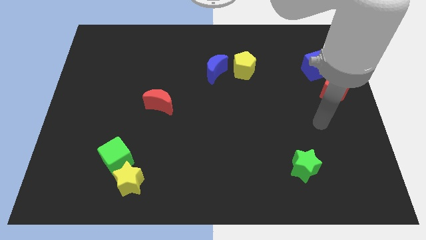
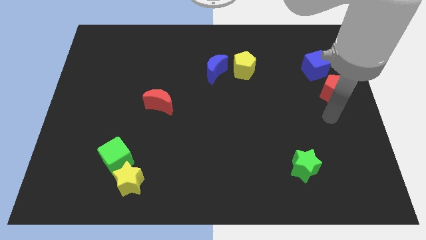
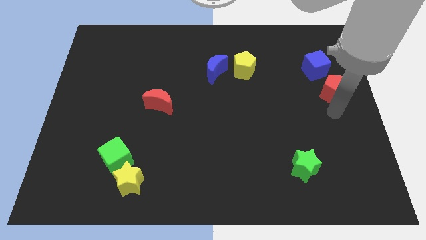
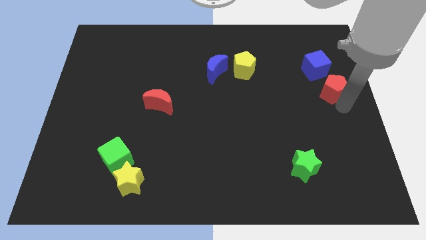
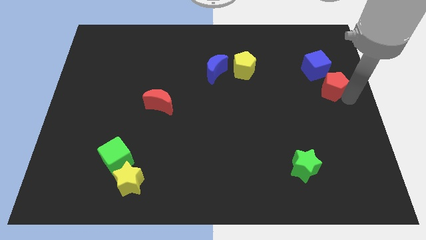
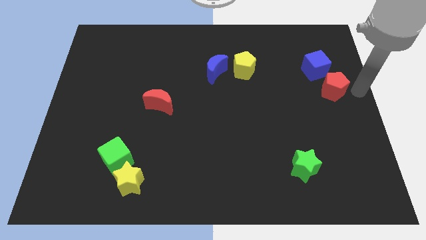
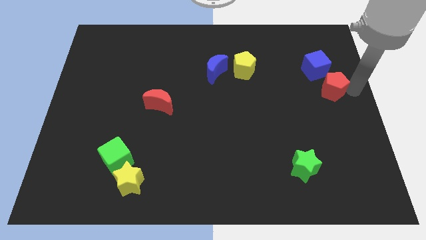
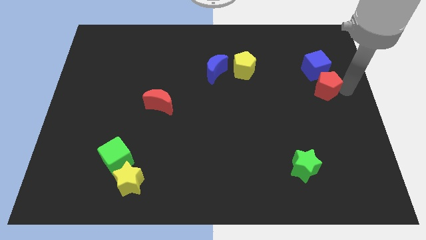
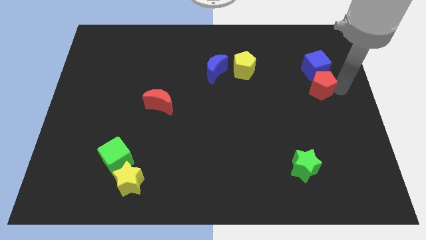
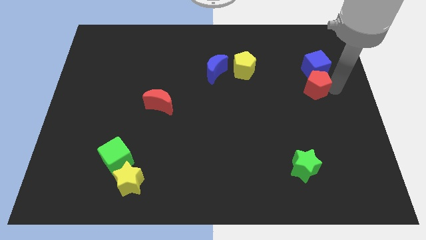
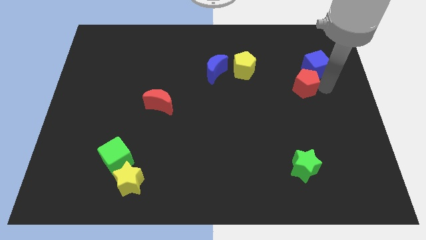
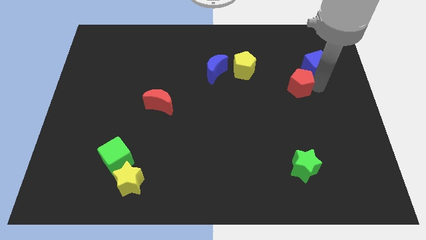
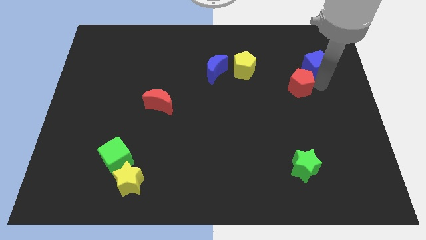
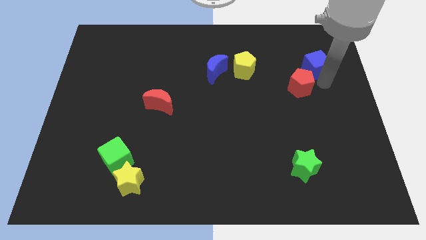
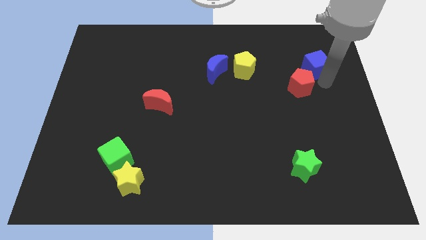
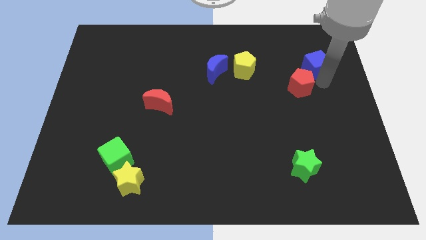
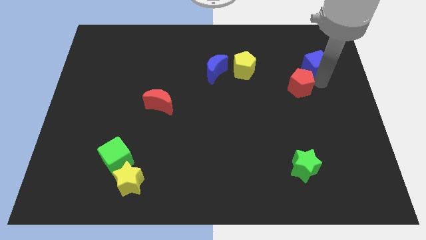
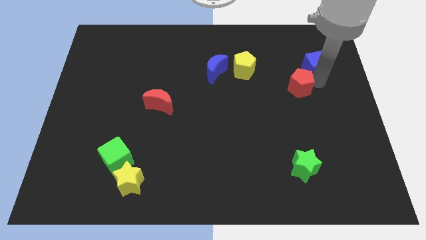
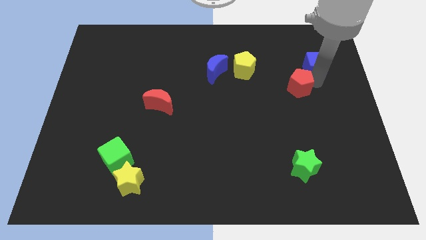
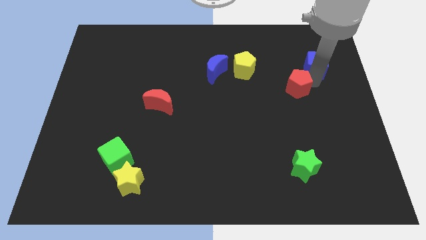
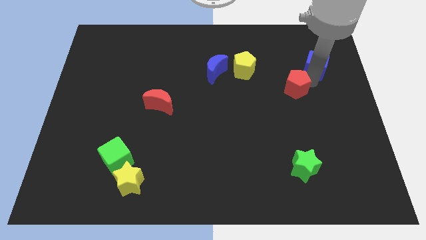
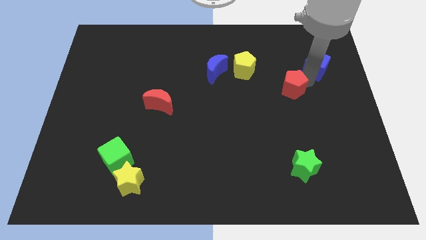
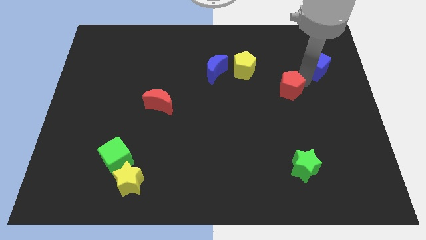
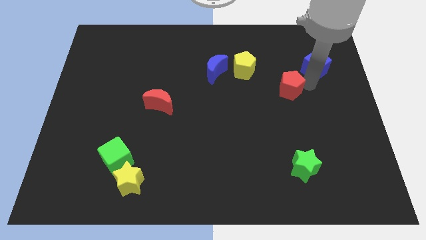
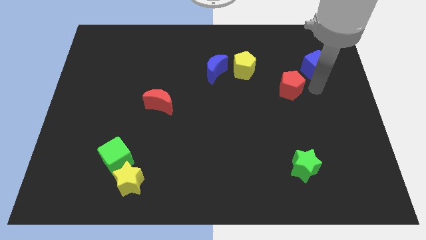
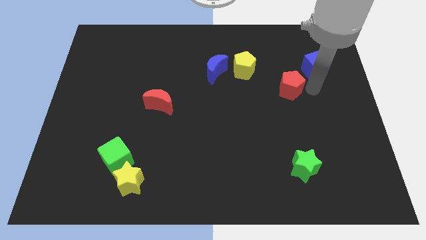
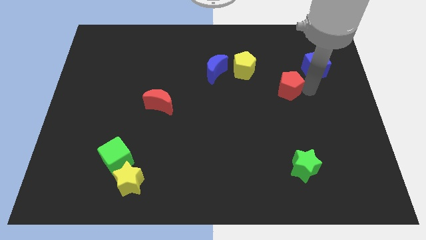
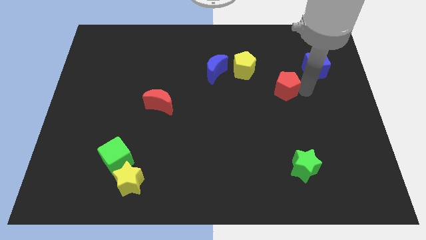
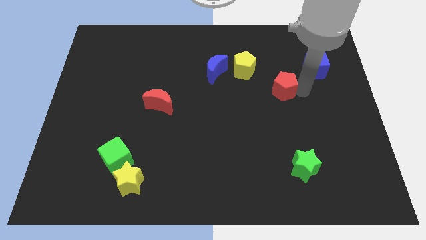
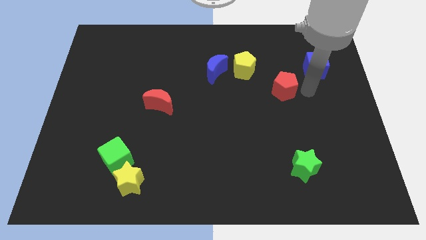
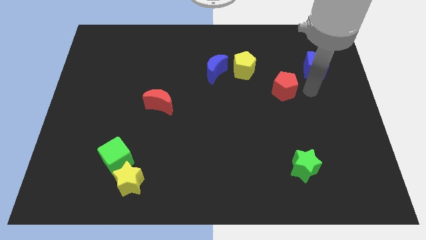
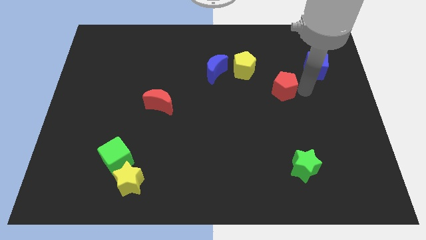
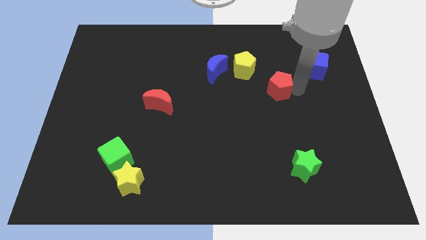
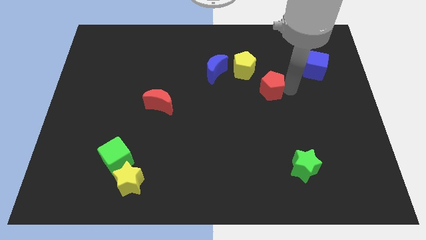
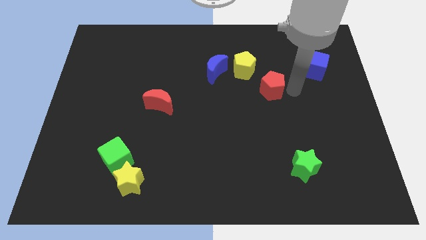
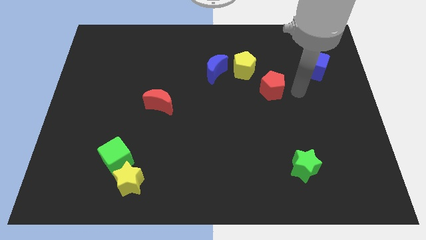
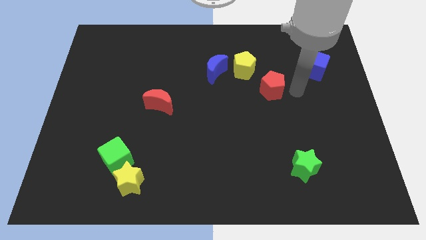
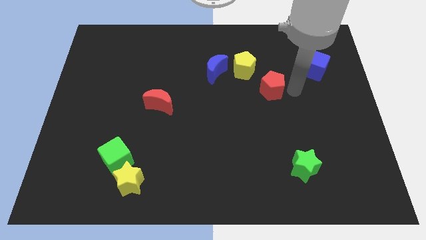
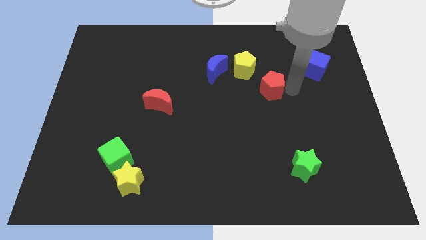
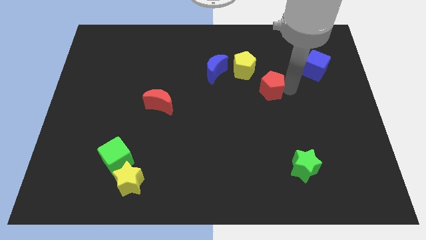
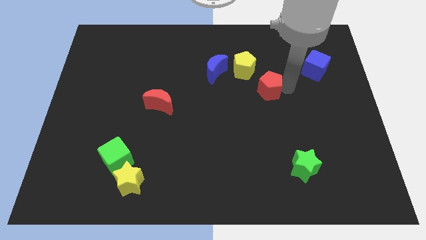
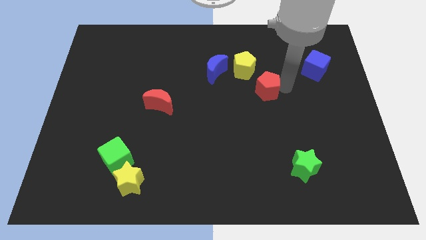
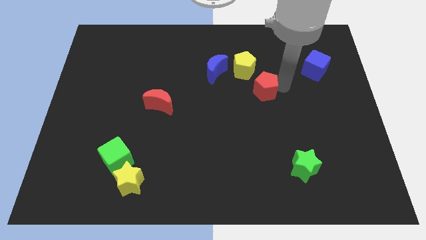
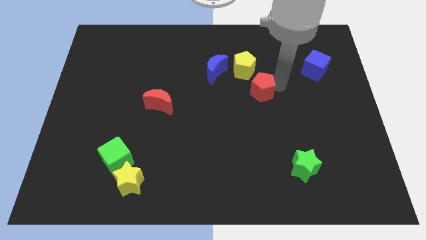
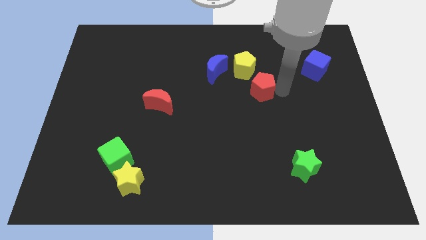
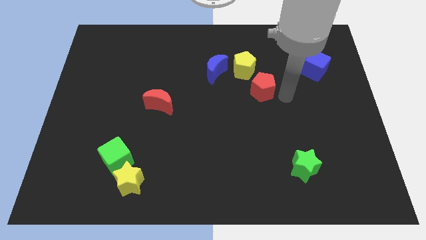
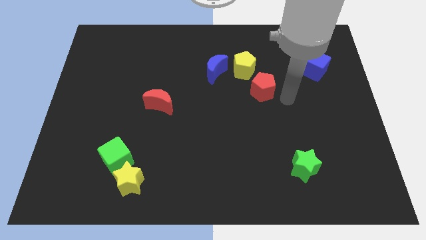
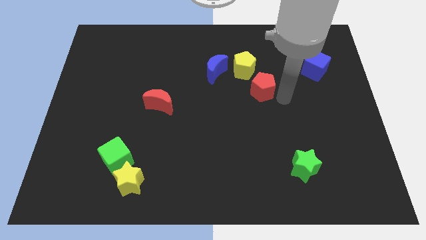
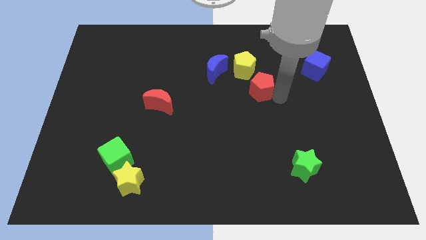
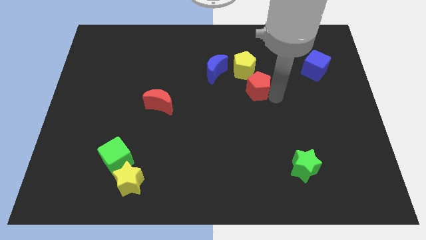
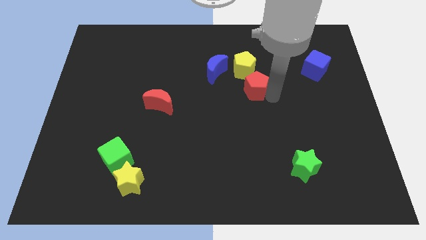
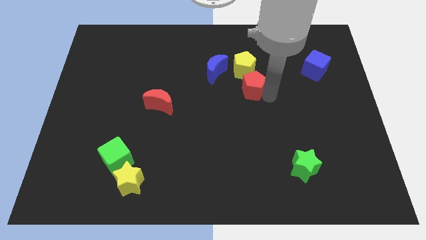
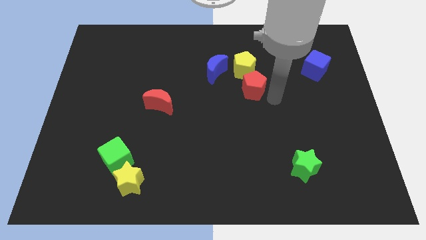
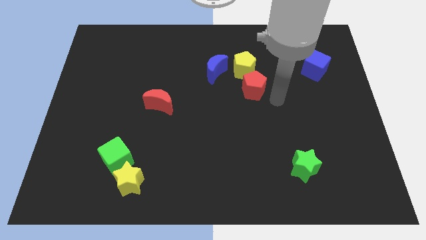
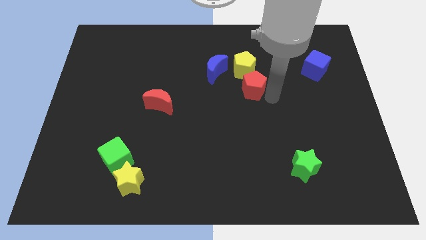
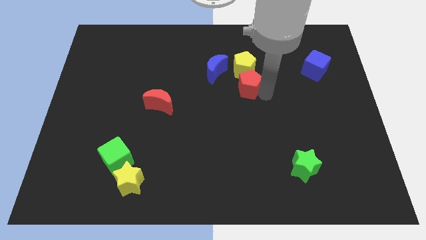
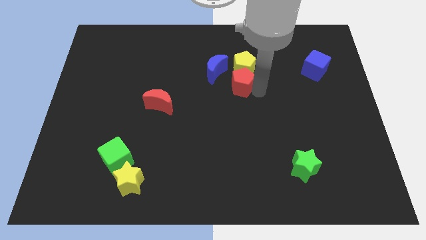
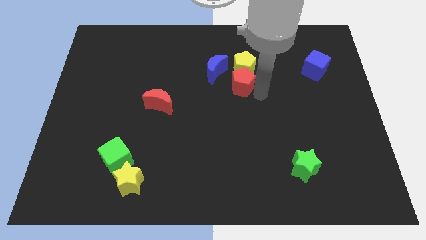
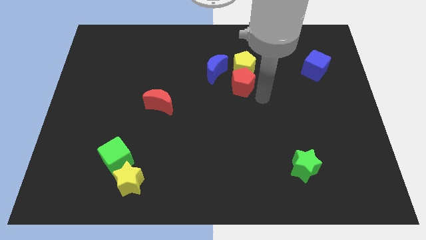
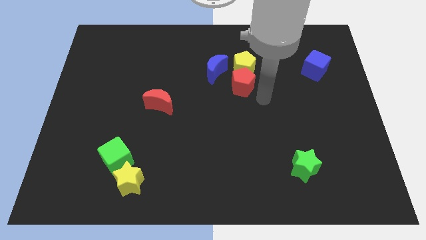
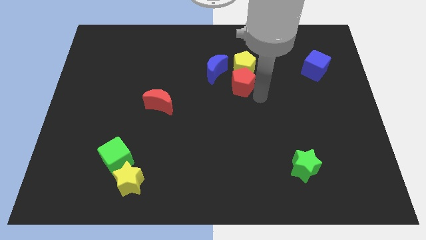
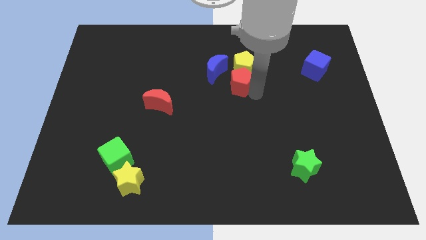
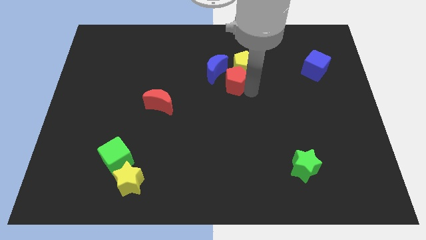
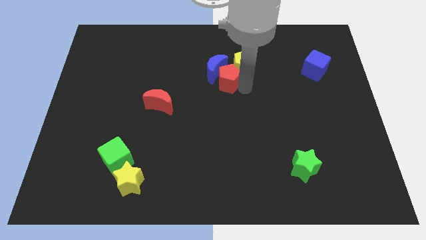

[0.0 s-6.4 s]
move the red pentagon close to the blue moon

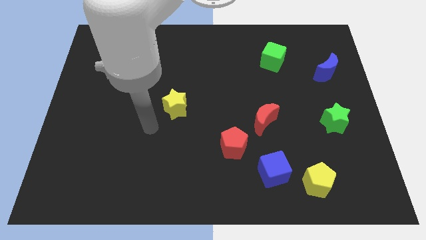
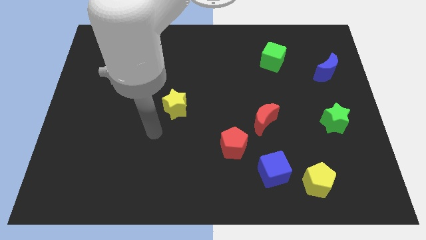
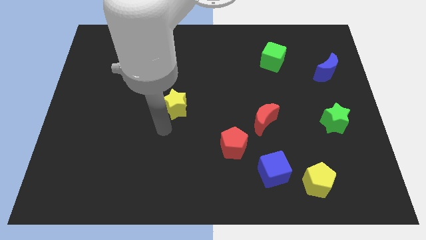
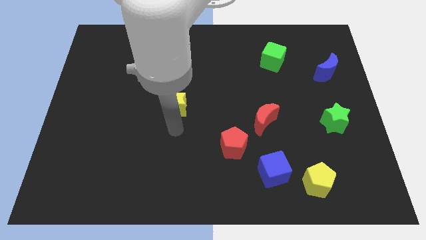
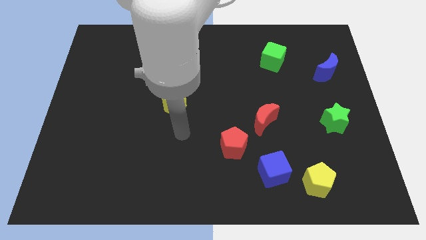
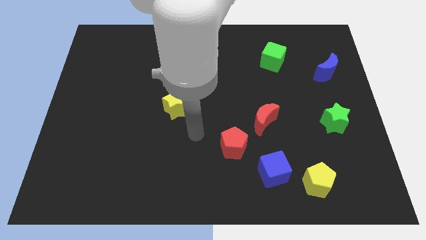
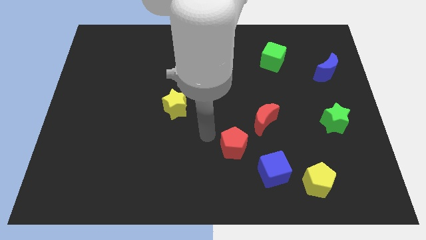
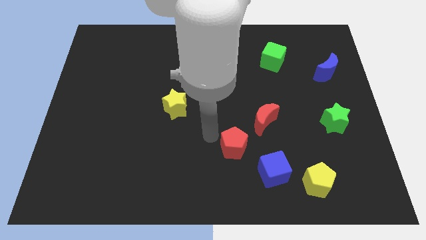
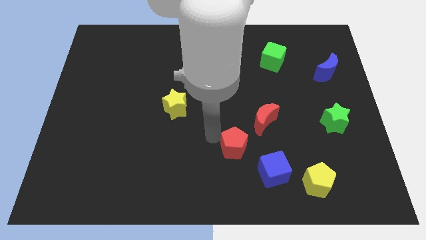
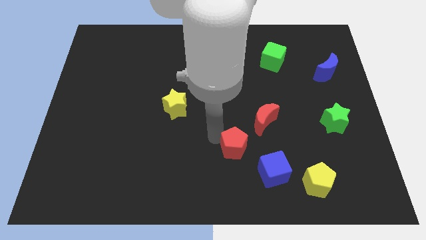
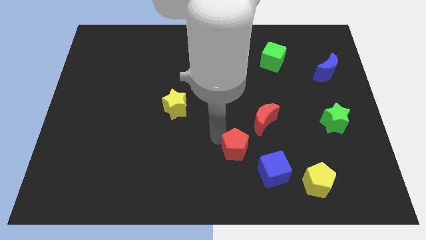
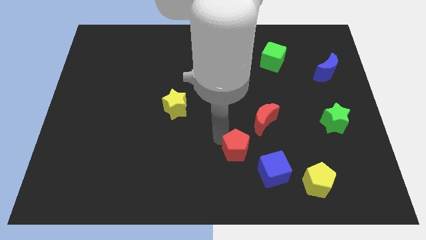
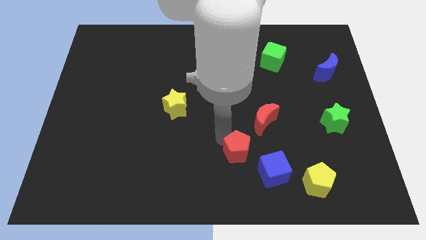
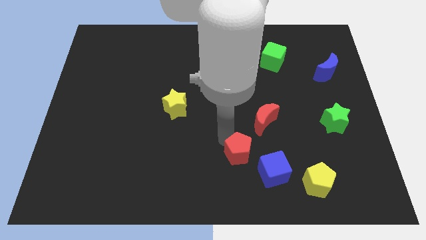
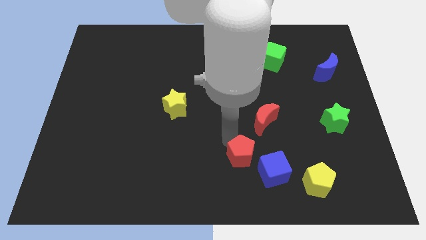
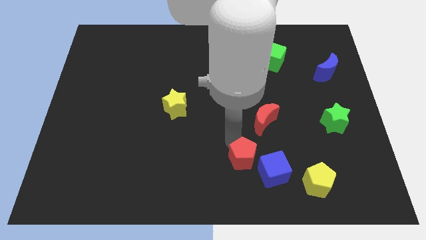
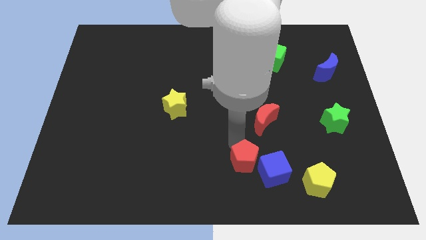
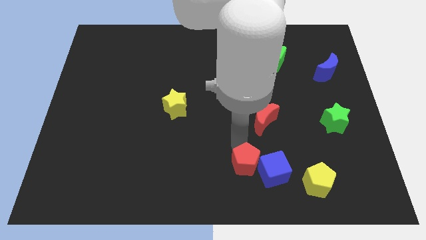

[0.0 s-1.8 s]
move the red pentagon close to the blue cube
